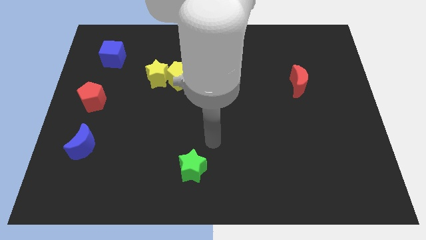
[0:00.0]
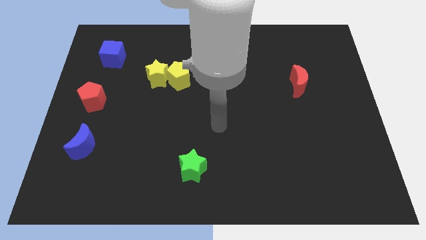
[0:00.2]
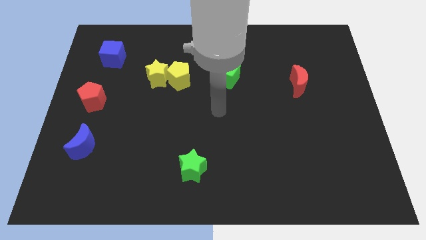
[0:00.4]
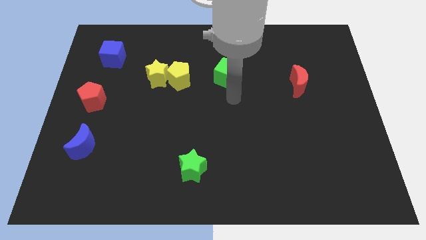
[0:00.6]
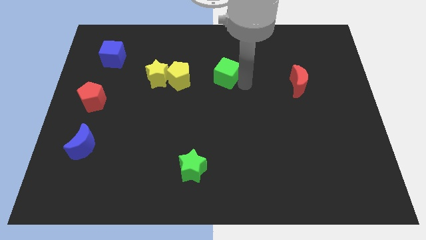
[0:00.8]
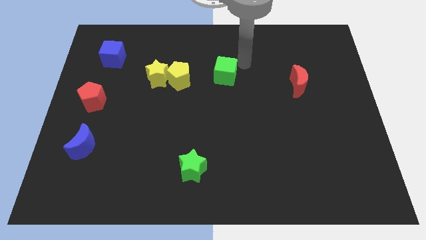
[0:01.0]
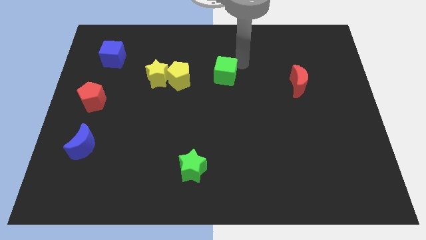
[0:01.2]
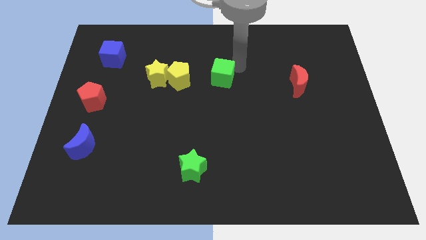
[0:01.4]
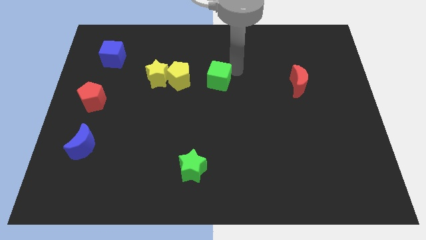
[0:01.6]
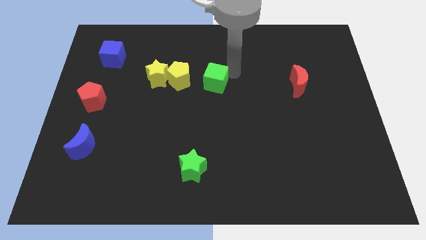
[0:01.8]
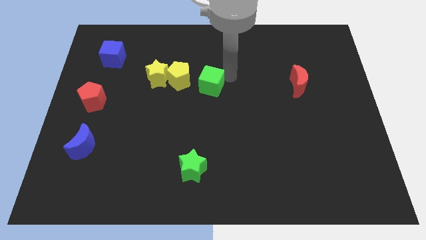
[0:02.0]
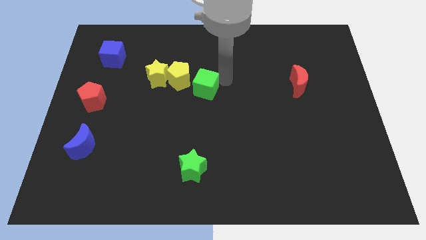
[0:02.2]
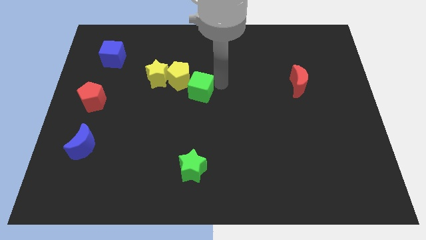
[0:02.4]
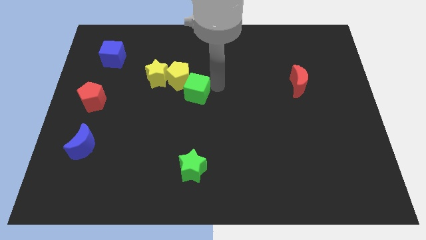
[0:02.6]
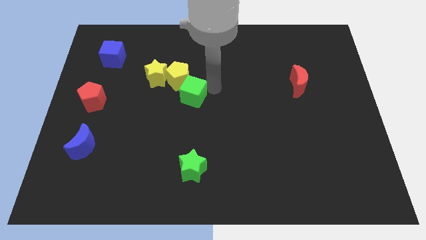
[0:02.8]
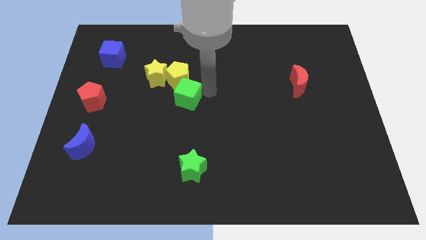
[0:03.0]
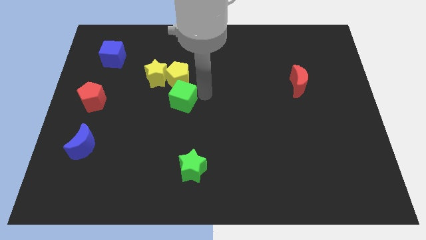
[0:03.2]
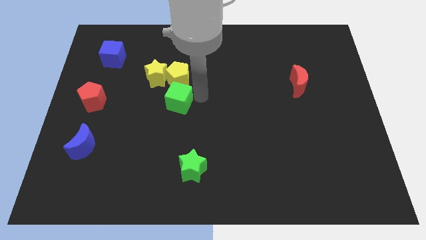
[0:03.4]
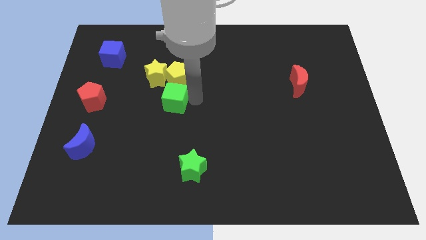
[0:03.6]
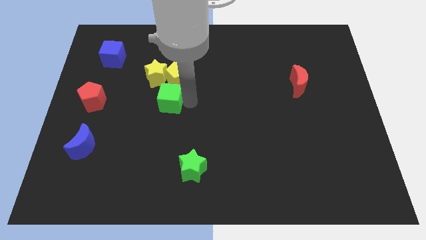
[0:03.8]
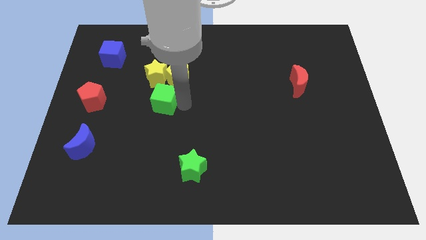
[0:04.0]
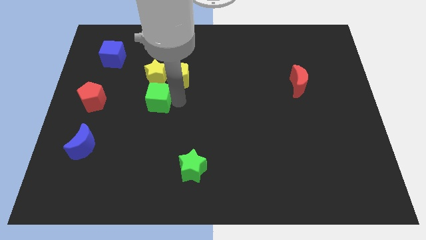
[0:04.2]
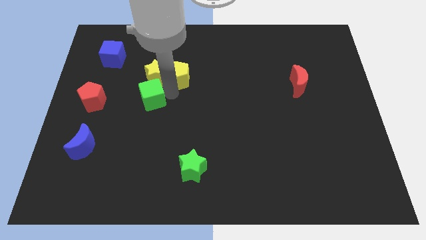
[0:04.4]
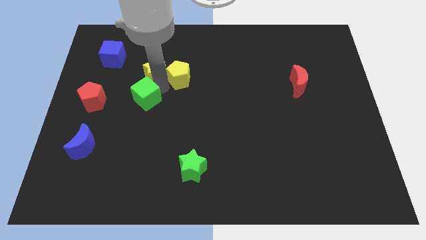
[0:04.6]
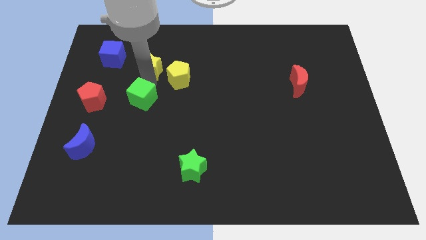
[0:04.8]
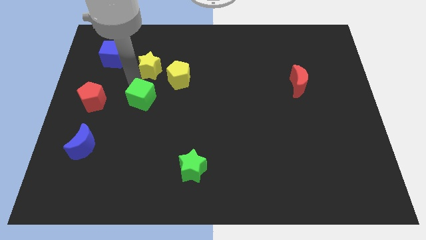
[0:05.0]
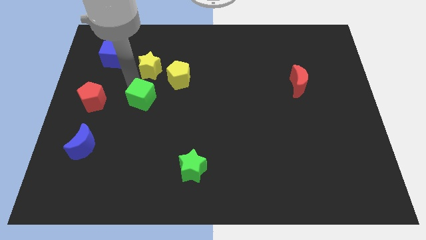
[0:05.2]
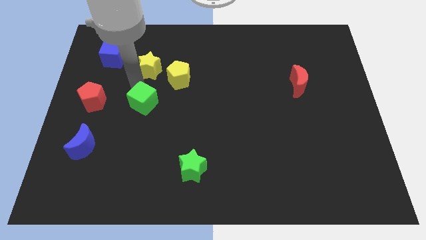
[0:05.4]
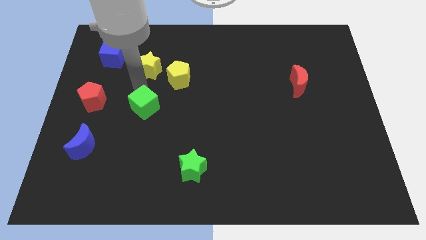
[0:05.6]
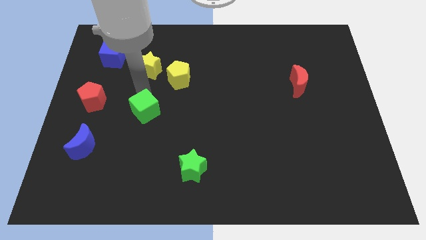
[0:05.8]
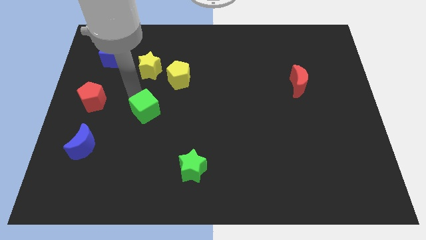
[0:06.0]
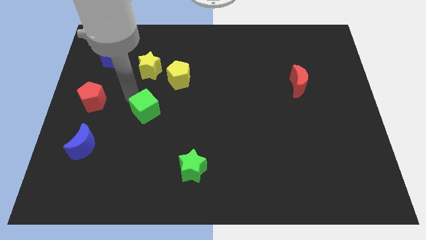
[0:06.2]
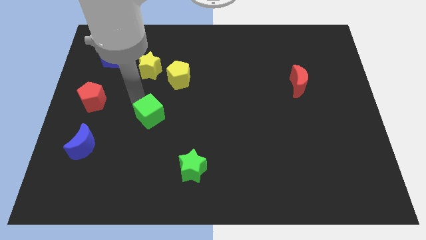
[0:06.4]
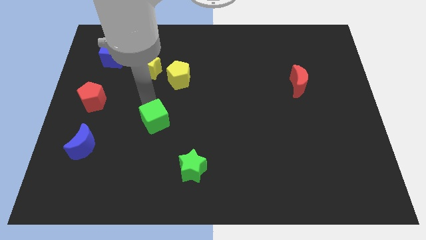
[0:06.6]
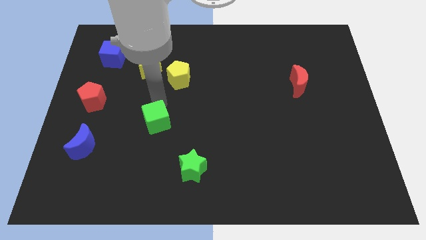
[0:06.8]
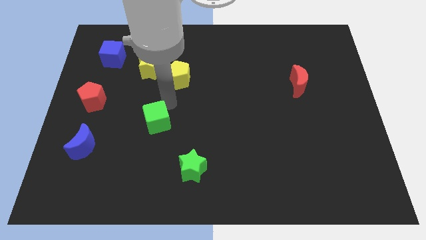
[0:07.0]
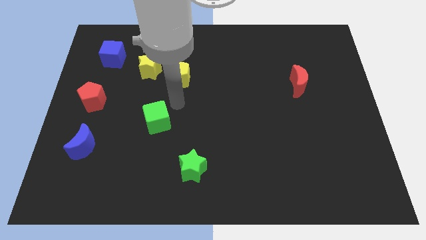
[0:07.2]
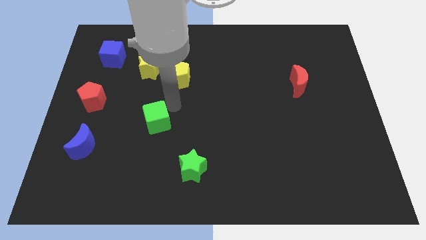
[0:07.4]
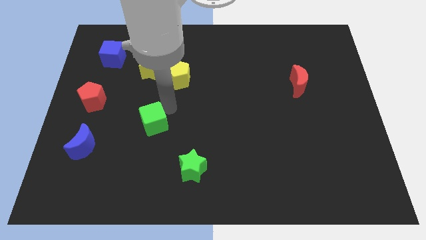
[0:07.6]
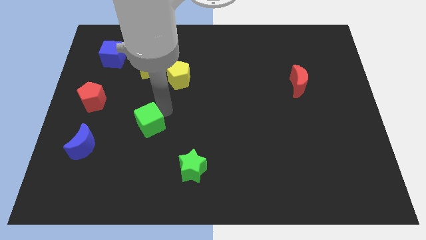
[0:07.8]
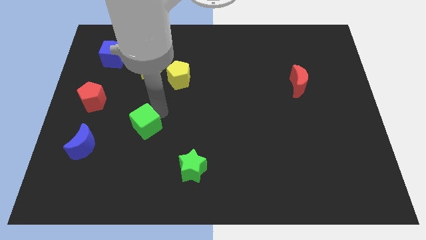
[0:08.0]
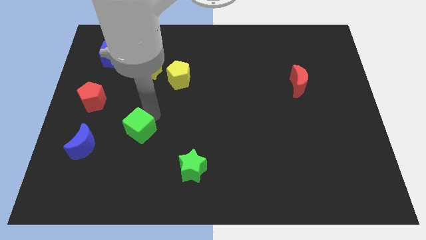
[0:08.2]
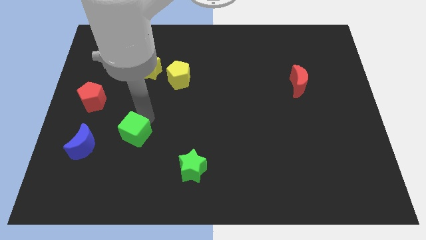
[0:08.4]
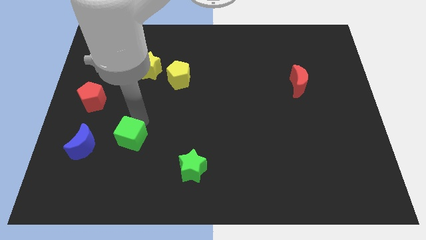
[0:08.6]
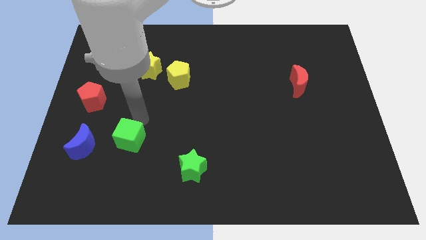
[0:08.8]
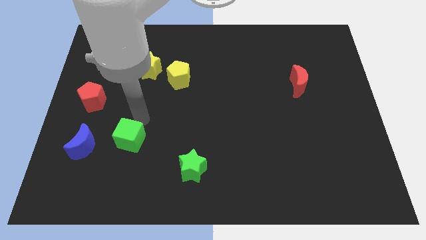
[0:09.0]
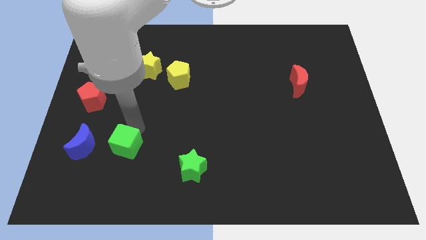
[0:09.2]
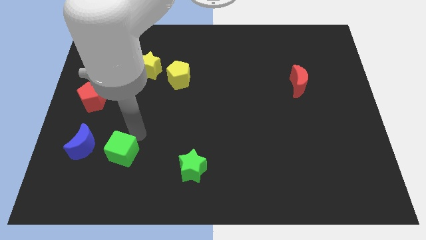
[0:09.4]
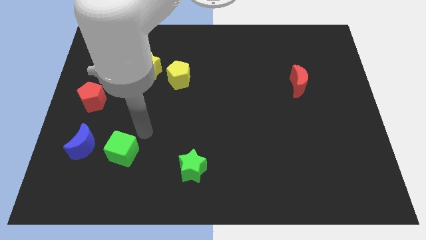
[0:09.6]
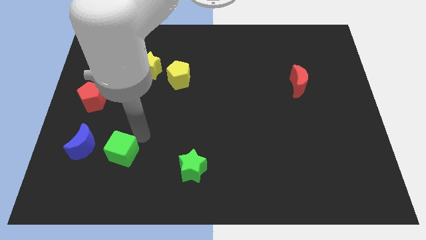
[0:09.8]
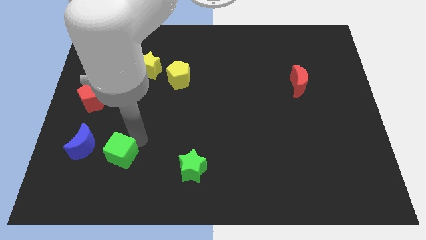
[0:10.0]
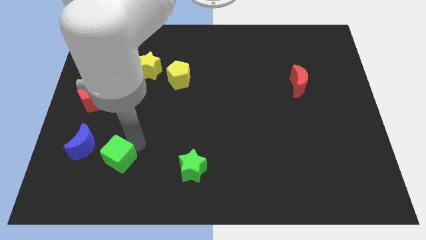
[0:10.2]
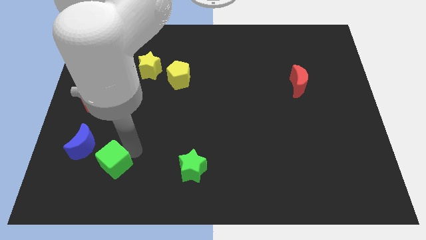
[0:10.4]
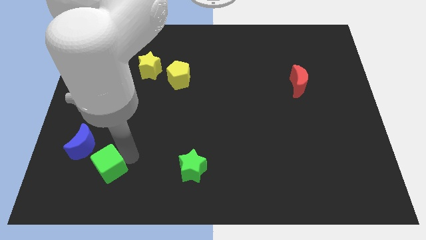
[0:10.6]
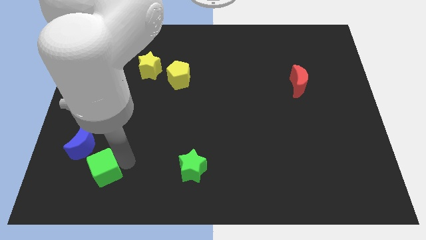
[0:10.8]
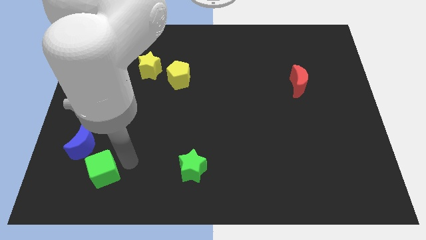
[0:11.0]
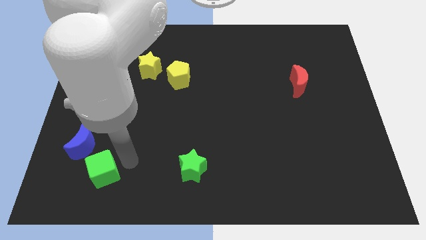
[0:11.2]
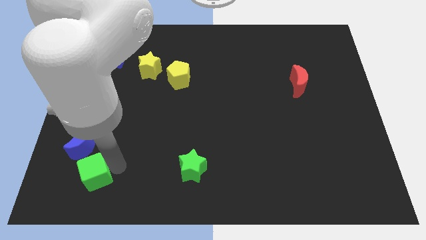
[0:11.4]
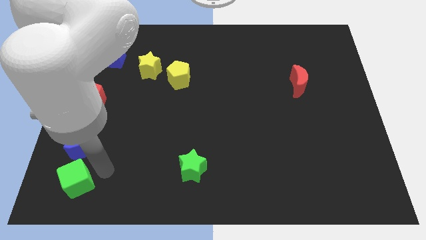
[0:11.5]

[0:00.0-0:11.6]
move the green cube to the bottom left

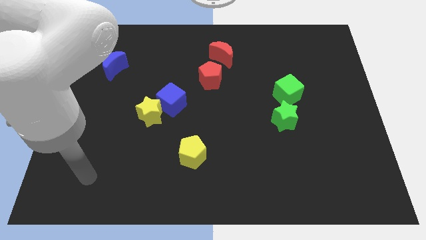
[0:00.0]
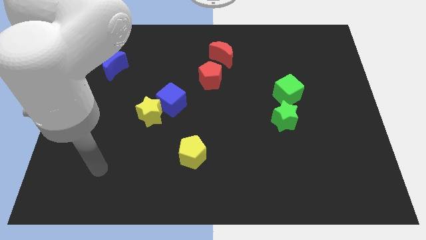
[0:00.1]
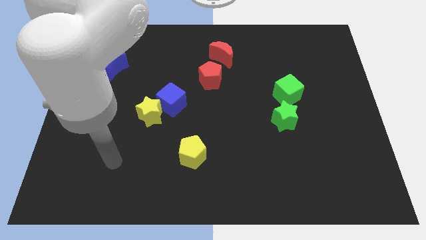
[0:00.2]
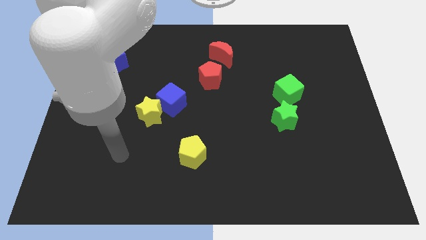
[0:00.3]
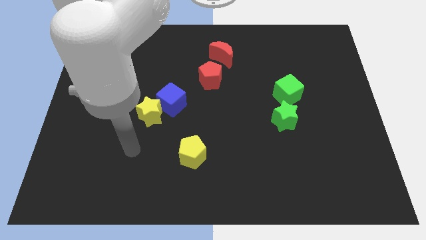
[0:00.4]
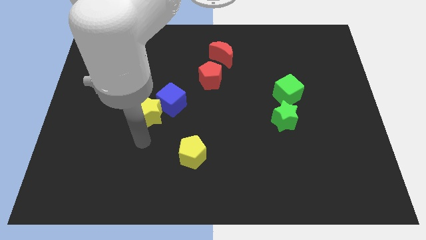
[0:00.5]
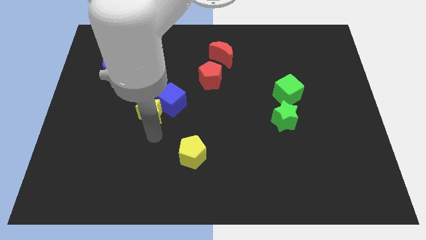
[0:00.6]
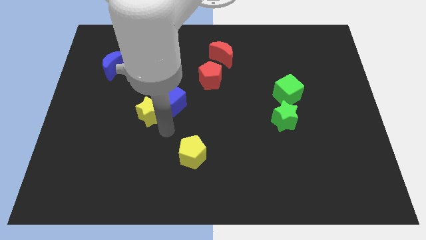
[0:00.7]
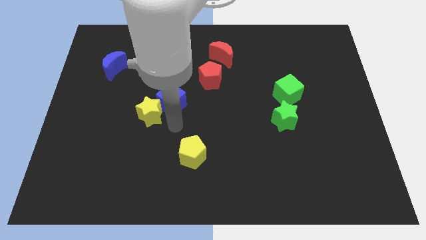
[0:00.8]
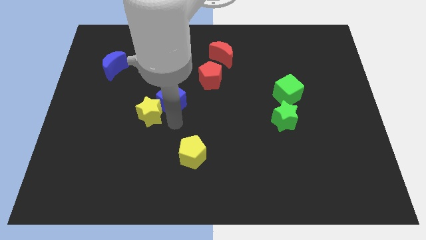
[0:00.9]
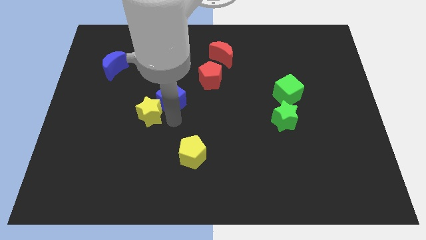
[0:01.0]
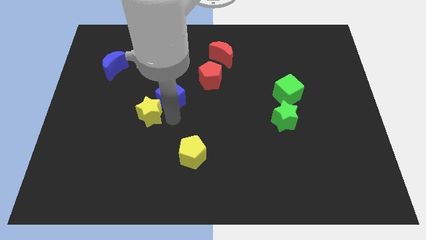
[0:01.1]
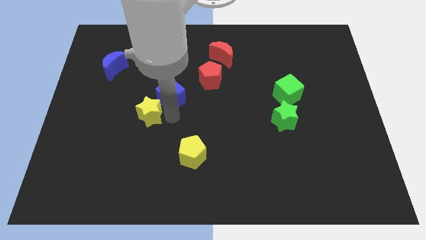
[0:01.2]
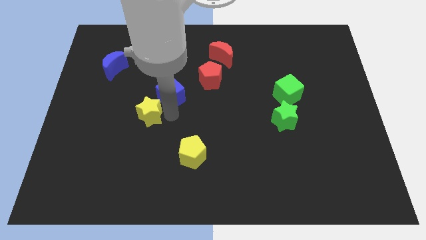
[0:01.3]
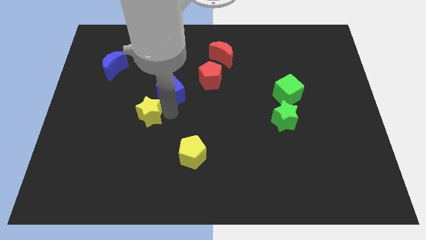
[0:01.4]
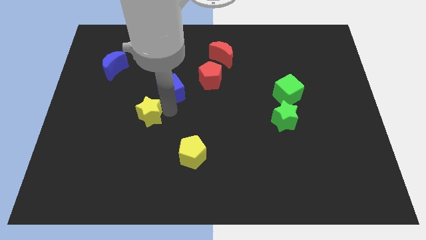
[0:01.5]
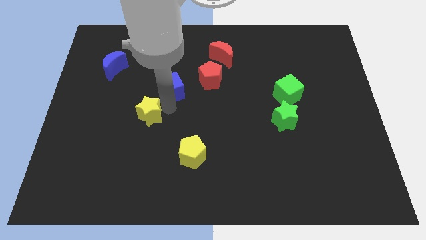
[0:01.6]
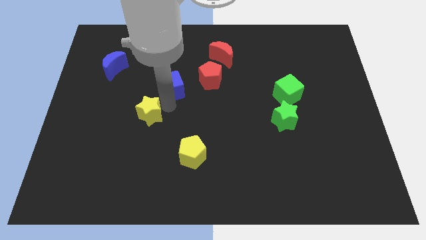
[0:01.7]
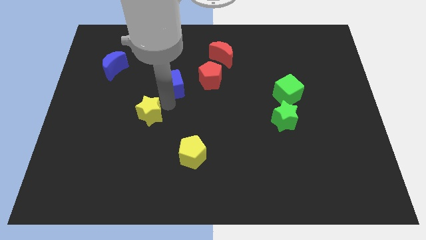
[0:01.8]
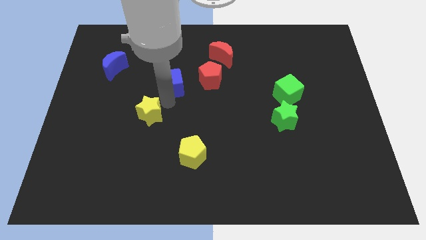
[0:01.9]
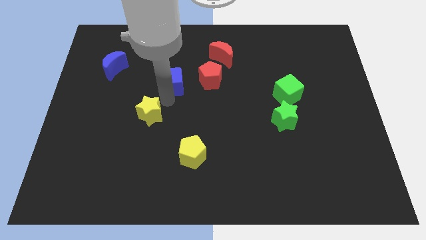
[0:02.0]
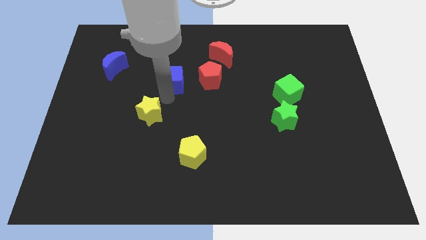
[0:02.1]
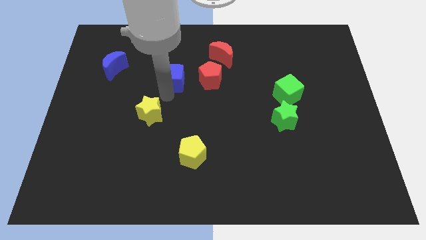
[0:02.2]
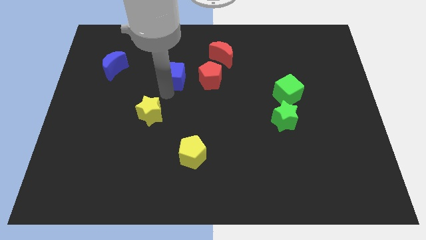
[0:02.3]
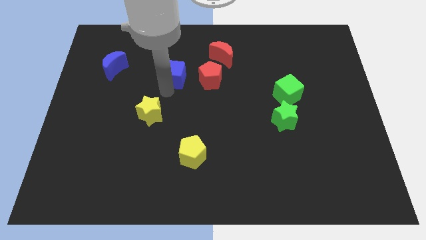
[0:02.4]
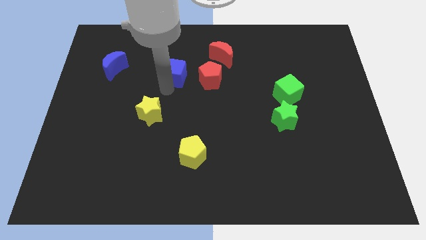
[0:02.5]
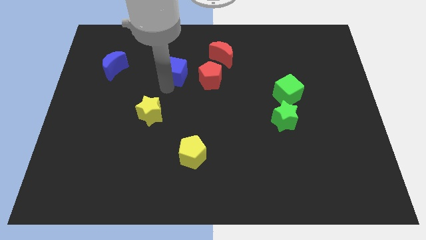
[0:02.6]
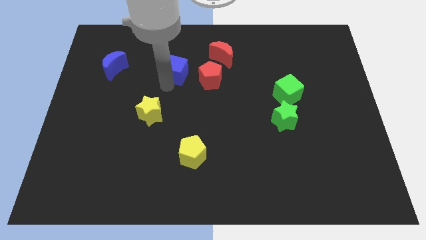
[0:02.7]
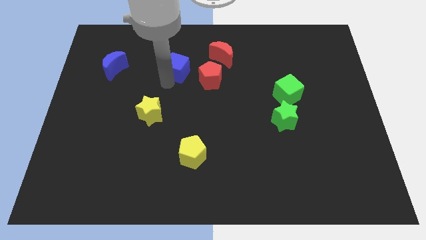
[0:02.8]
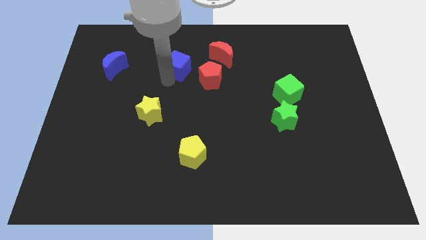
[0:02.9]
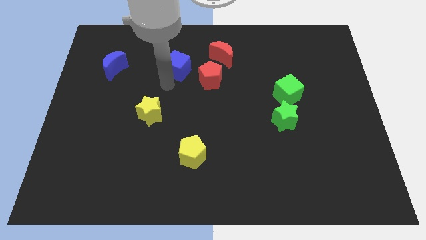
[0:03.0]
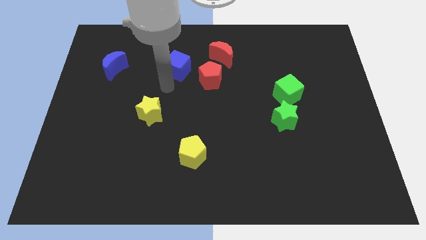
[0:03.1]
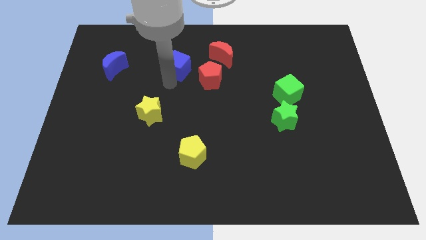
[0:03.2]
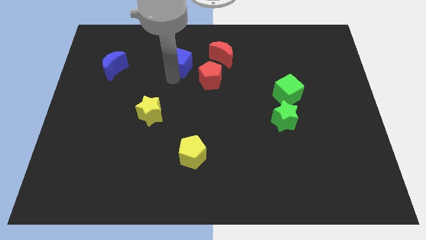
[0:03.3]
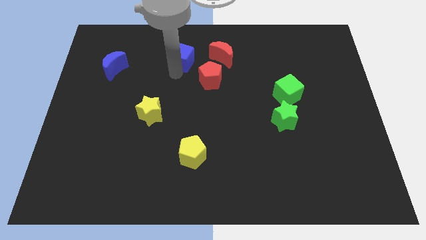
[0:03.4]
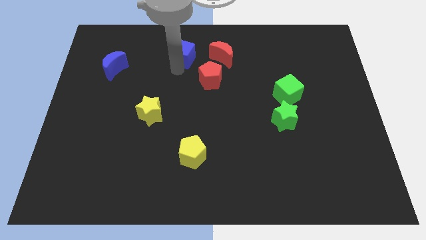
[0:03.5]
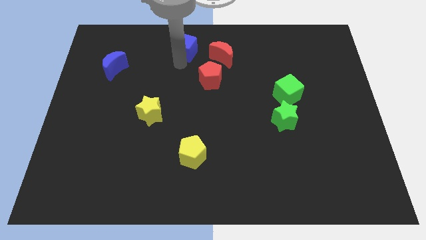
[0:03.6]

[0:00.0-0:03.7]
move the blue cube to the top
